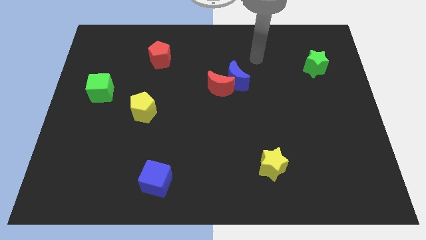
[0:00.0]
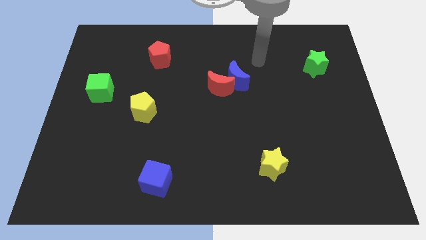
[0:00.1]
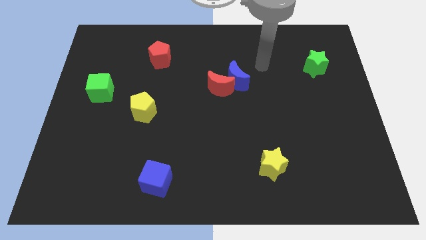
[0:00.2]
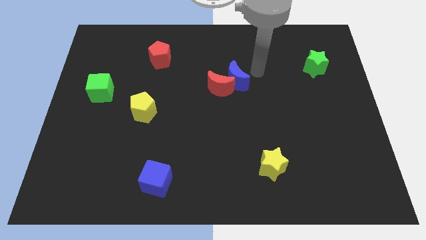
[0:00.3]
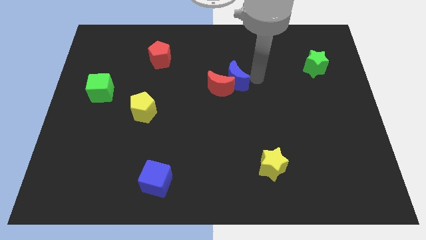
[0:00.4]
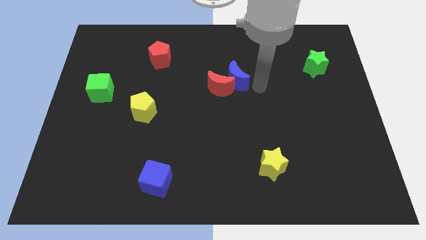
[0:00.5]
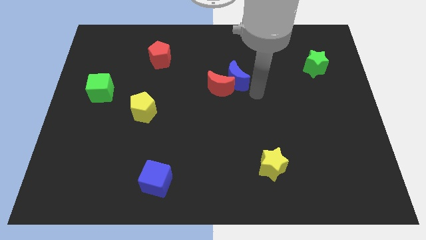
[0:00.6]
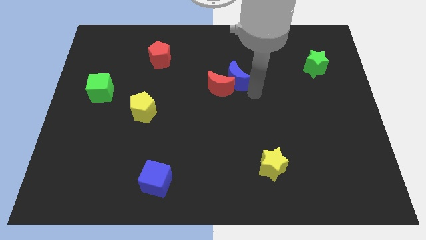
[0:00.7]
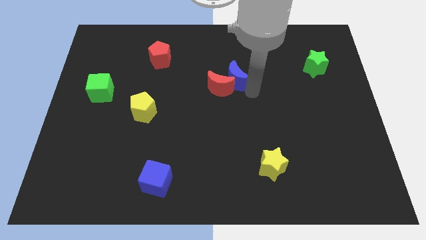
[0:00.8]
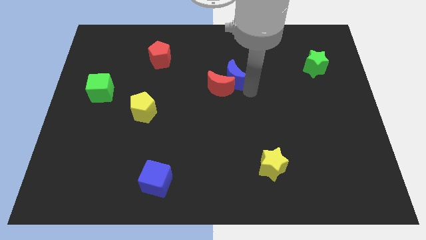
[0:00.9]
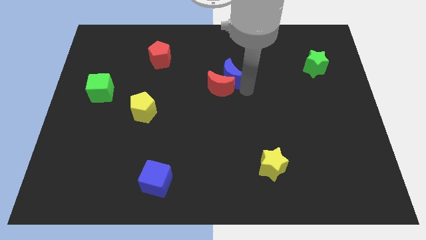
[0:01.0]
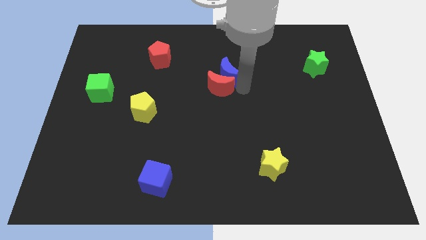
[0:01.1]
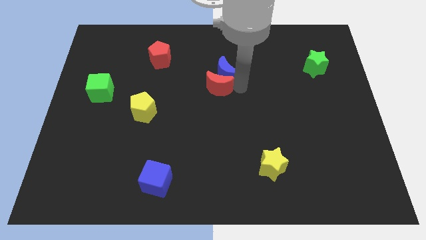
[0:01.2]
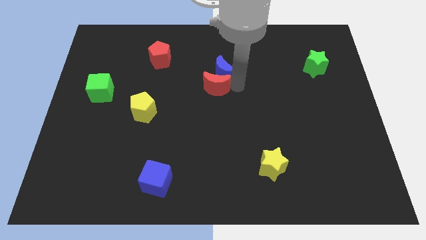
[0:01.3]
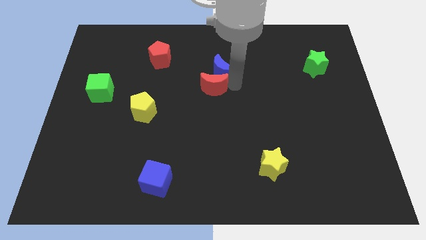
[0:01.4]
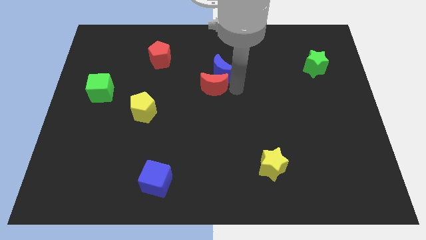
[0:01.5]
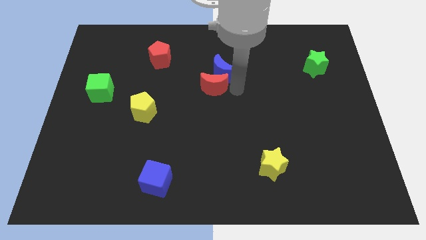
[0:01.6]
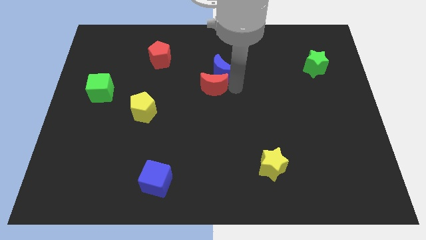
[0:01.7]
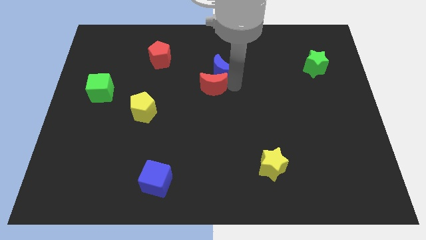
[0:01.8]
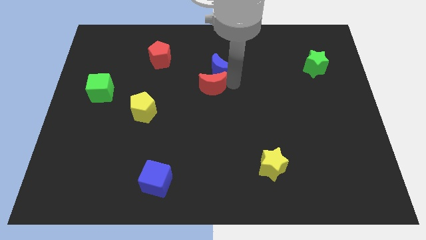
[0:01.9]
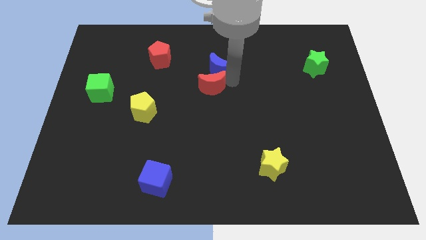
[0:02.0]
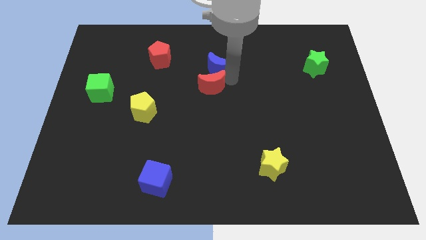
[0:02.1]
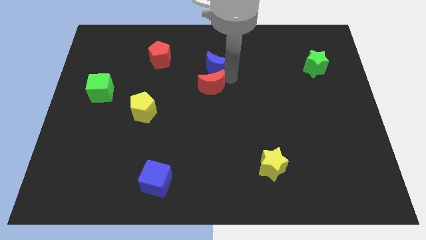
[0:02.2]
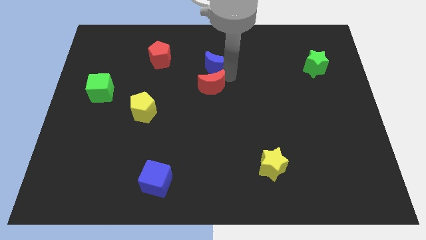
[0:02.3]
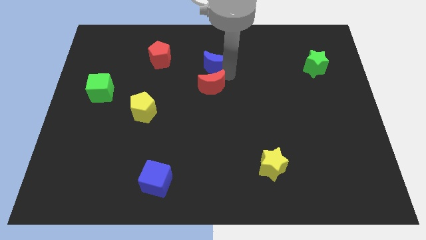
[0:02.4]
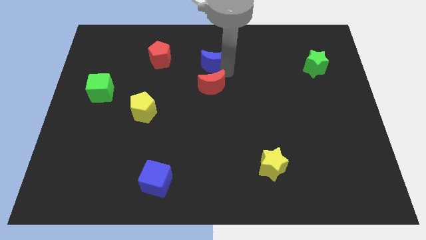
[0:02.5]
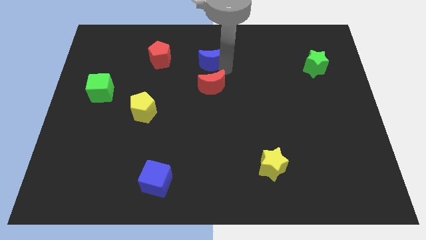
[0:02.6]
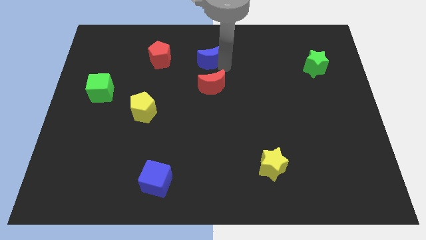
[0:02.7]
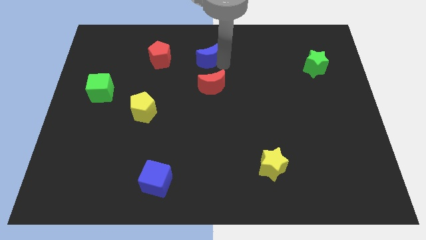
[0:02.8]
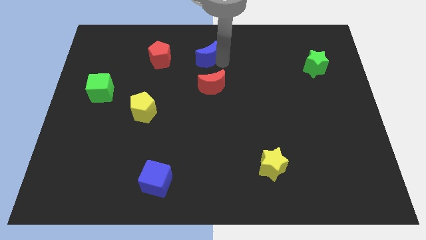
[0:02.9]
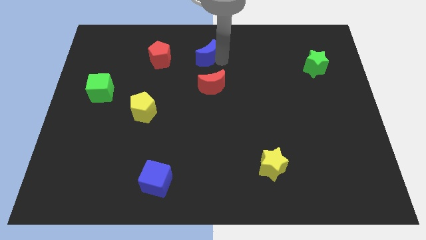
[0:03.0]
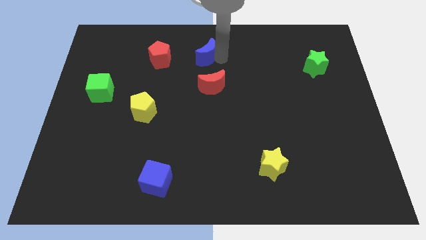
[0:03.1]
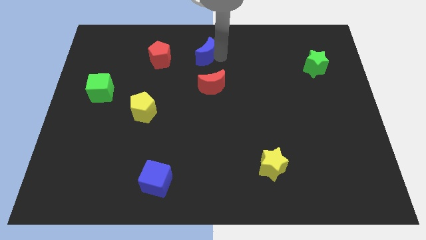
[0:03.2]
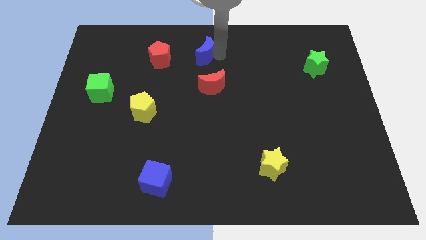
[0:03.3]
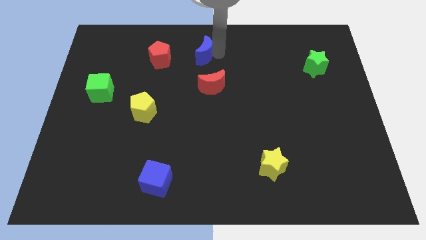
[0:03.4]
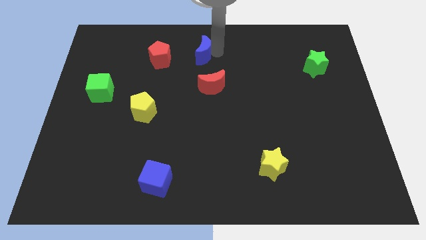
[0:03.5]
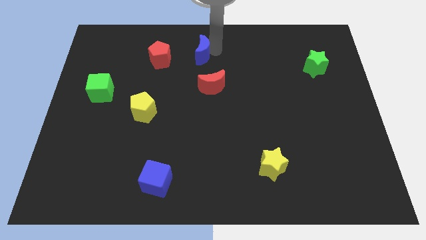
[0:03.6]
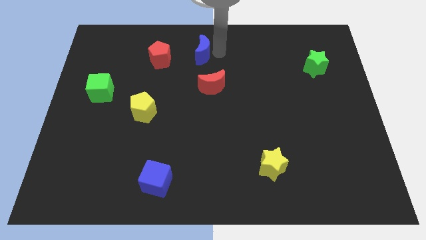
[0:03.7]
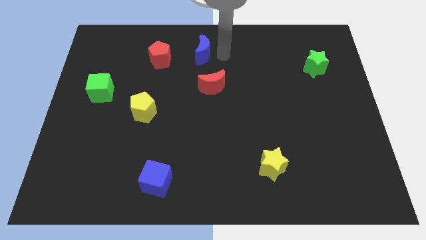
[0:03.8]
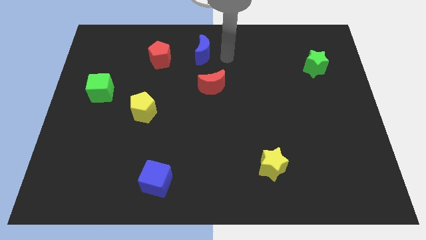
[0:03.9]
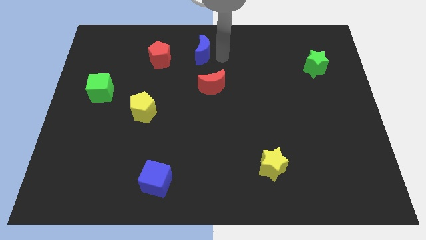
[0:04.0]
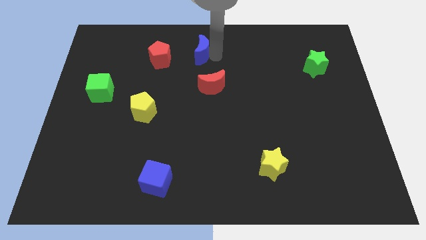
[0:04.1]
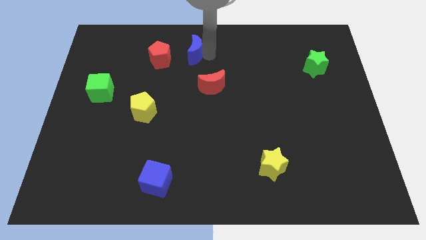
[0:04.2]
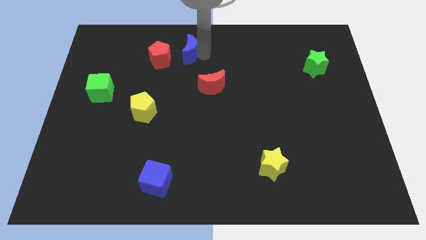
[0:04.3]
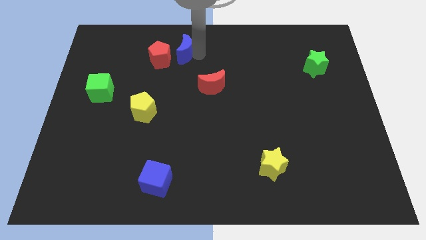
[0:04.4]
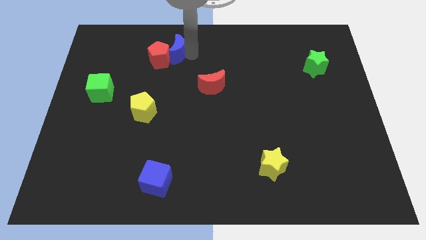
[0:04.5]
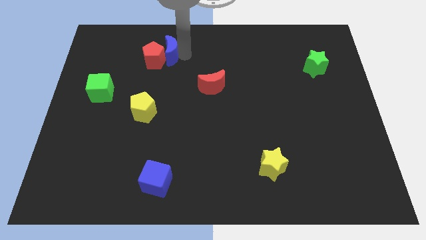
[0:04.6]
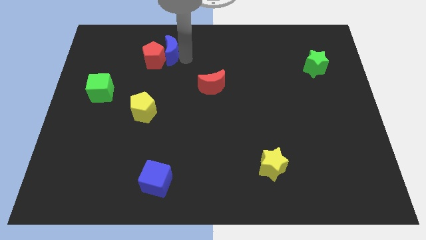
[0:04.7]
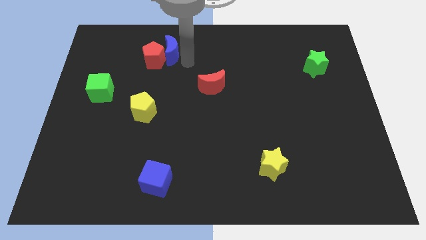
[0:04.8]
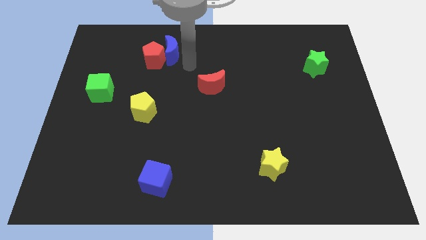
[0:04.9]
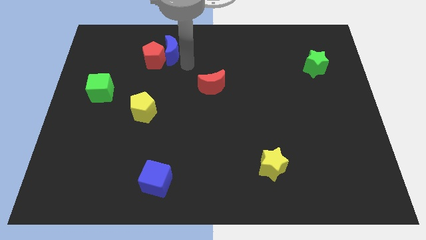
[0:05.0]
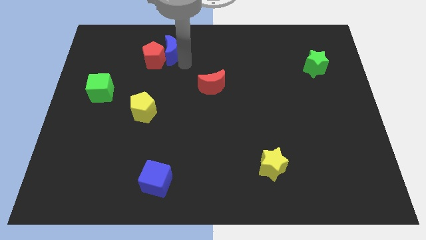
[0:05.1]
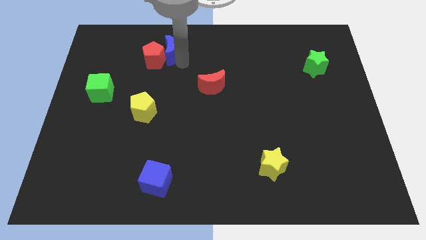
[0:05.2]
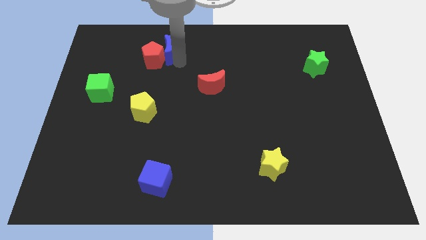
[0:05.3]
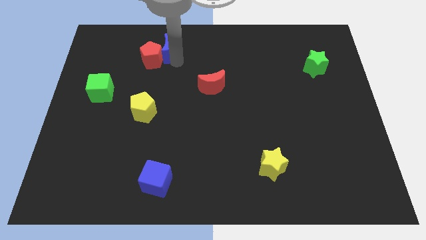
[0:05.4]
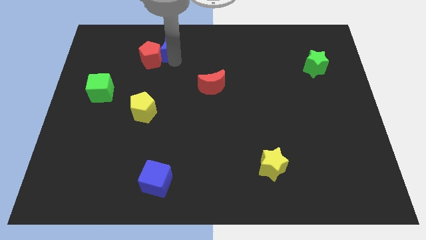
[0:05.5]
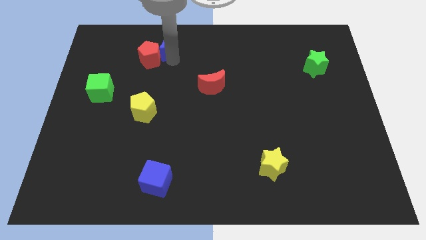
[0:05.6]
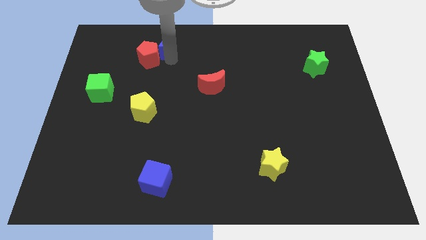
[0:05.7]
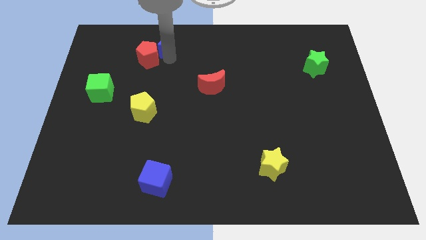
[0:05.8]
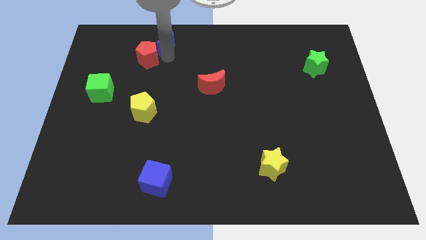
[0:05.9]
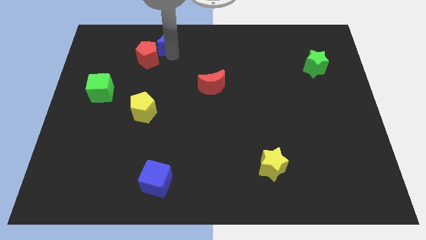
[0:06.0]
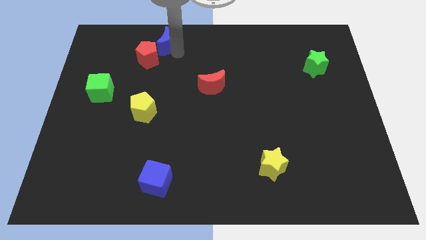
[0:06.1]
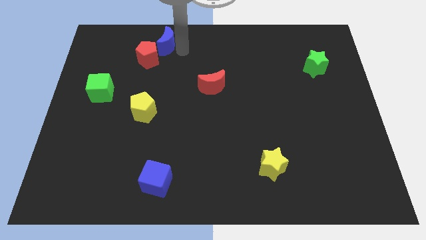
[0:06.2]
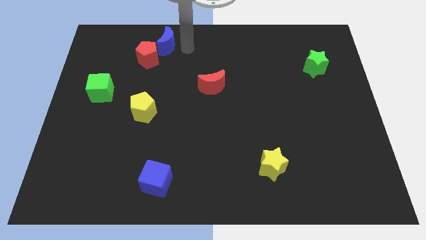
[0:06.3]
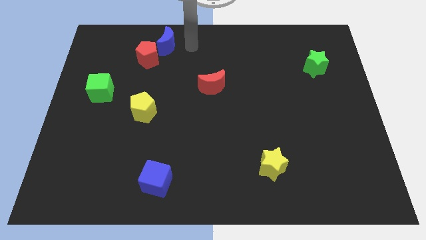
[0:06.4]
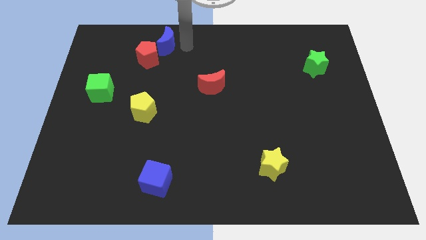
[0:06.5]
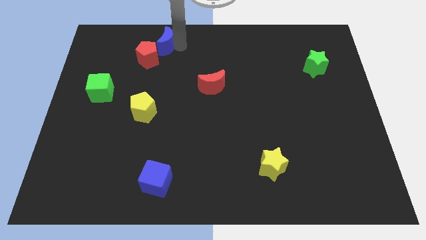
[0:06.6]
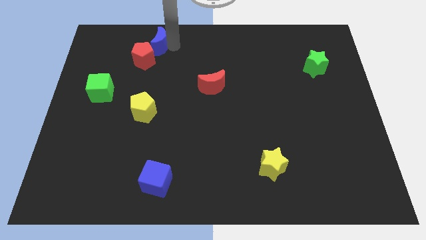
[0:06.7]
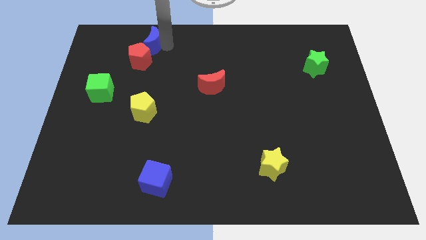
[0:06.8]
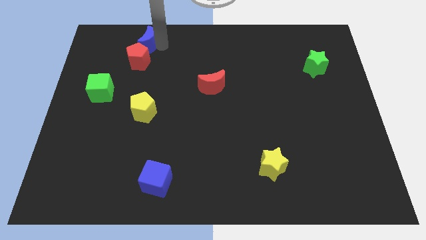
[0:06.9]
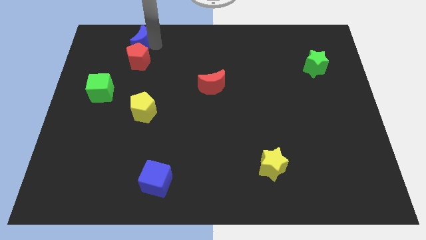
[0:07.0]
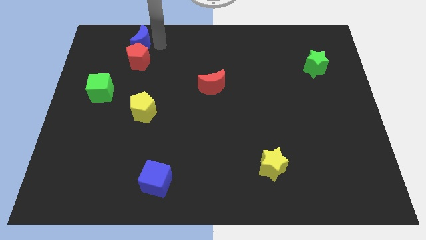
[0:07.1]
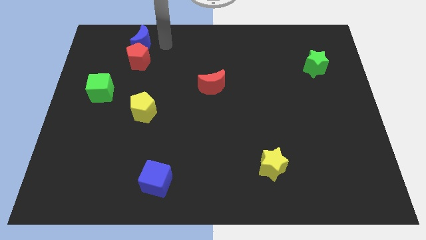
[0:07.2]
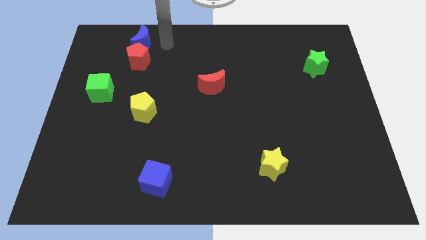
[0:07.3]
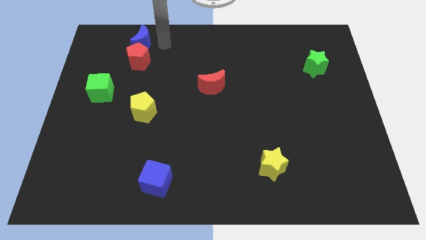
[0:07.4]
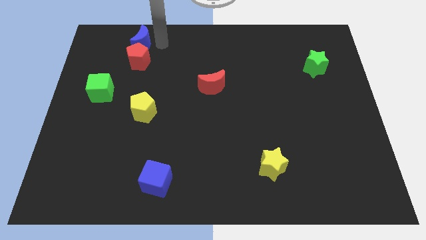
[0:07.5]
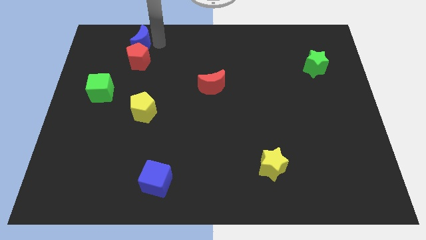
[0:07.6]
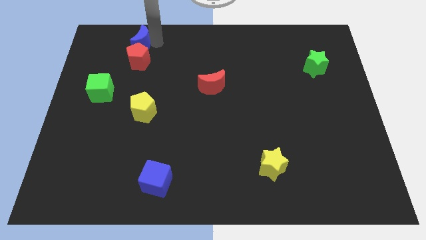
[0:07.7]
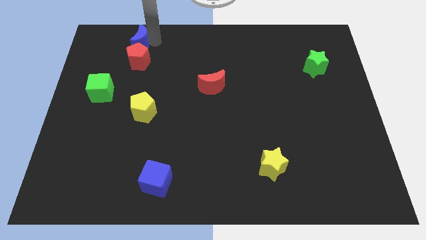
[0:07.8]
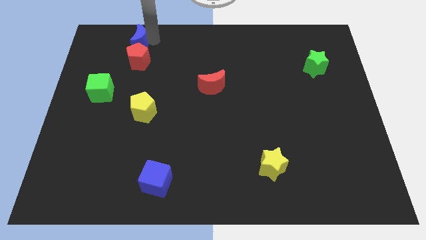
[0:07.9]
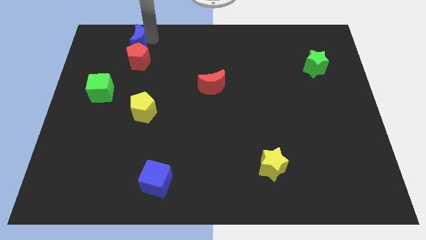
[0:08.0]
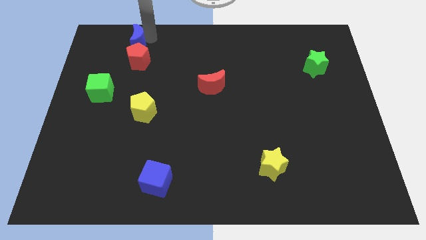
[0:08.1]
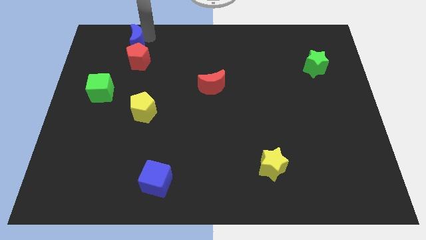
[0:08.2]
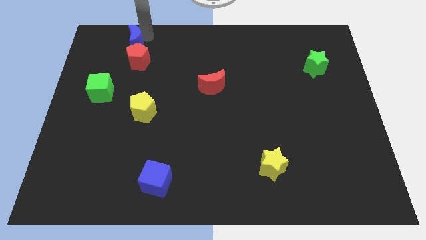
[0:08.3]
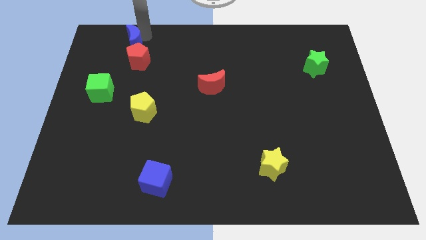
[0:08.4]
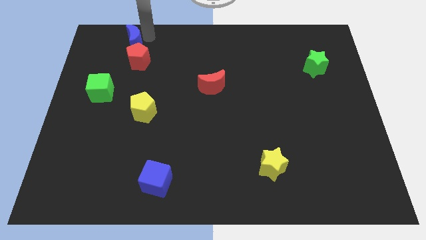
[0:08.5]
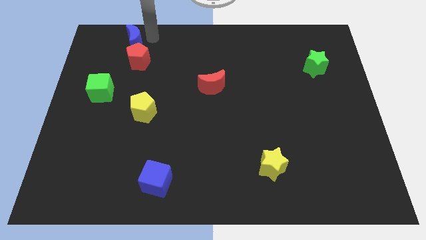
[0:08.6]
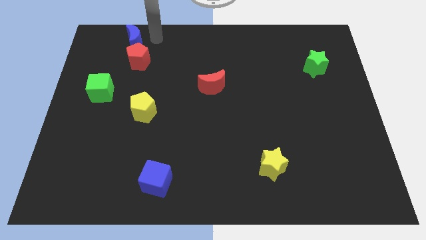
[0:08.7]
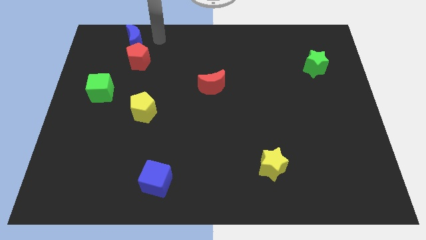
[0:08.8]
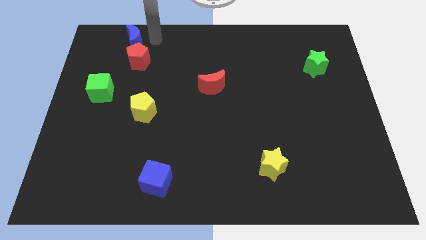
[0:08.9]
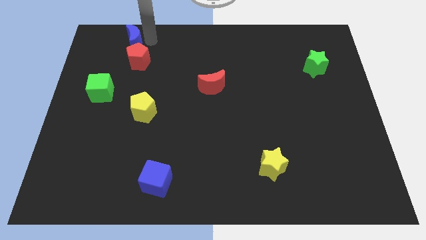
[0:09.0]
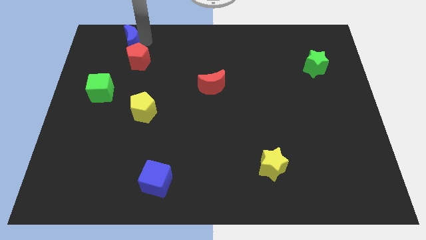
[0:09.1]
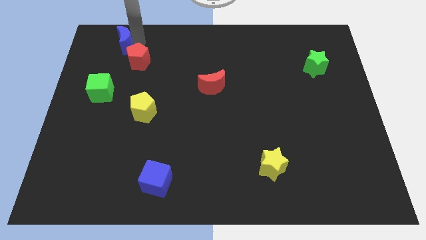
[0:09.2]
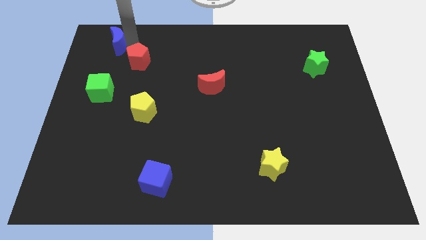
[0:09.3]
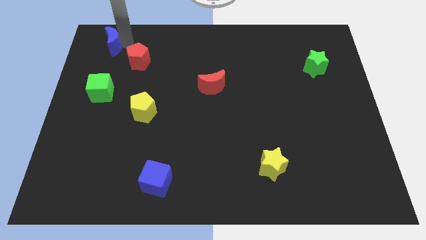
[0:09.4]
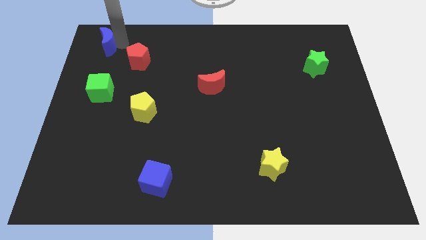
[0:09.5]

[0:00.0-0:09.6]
put the blue moon to the top left of the board
